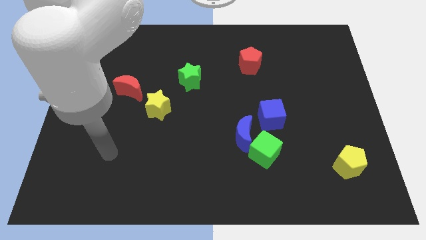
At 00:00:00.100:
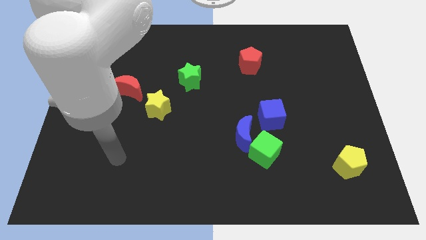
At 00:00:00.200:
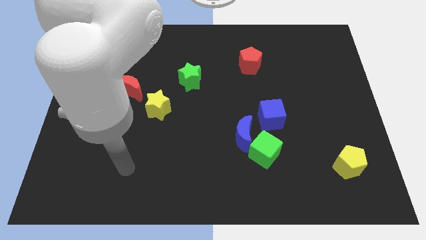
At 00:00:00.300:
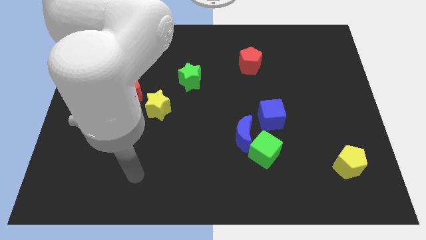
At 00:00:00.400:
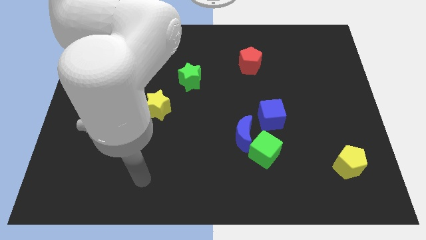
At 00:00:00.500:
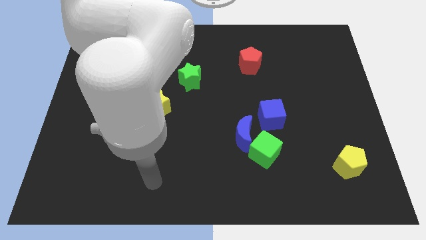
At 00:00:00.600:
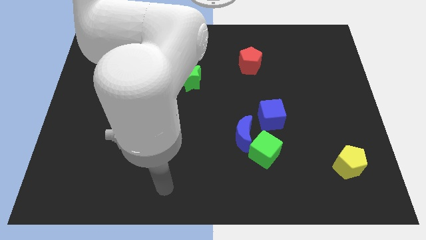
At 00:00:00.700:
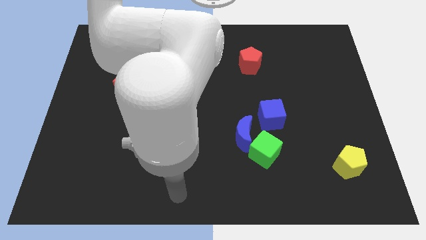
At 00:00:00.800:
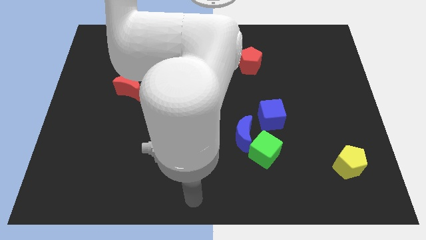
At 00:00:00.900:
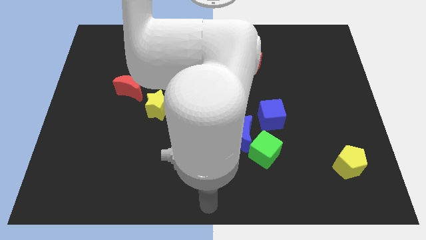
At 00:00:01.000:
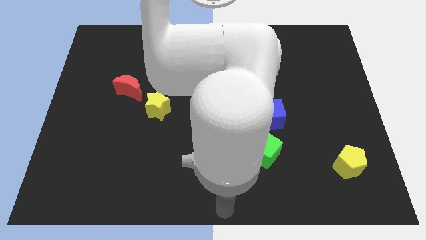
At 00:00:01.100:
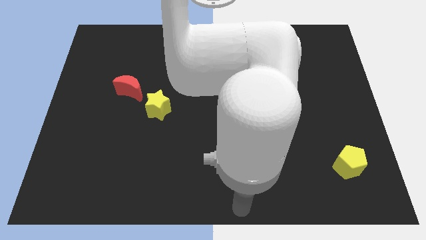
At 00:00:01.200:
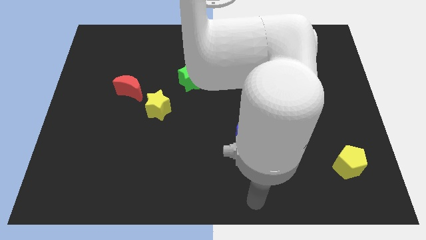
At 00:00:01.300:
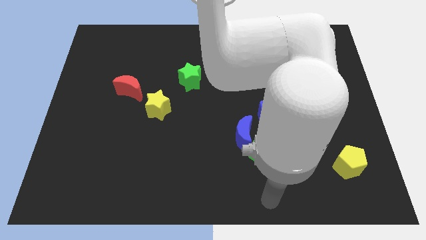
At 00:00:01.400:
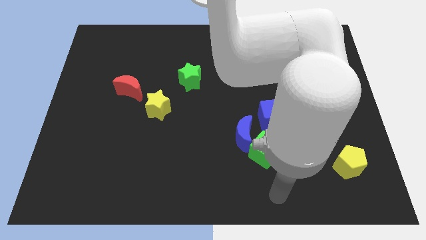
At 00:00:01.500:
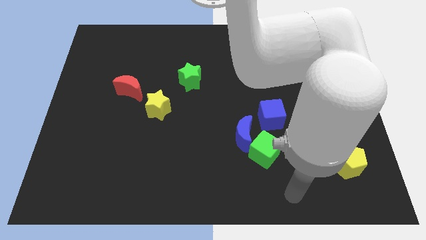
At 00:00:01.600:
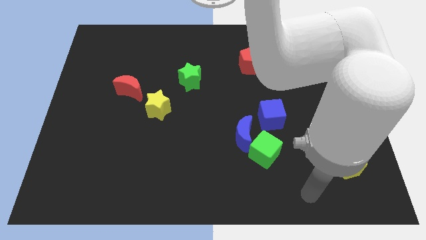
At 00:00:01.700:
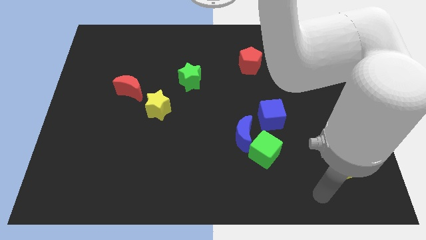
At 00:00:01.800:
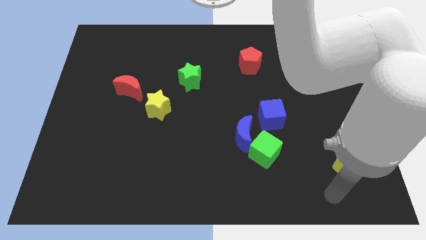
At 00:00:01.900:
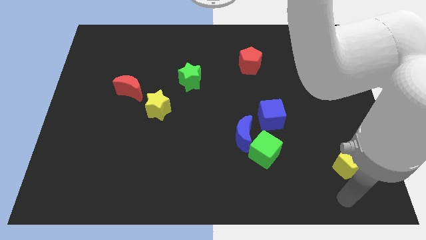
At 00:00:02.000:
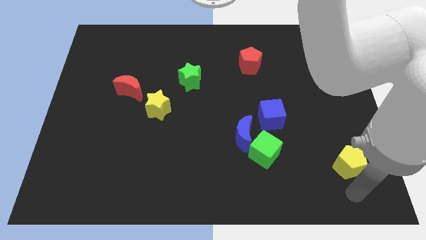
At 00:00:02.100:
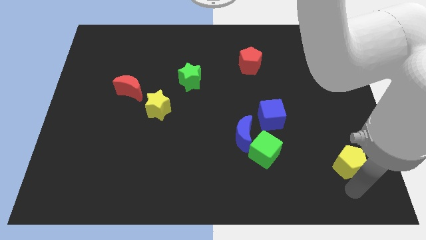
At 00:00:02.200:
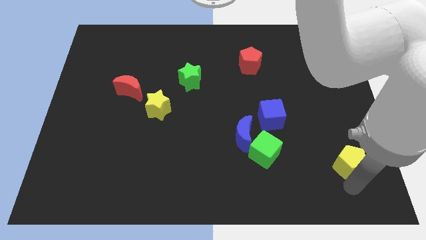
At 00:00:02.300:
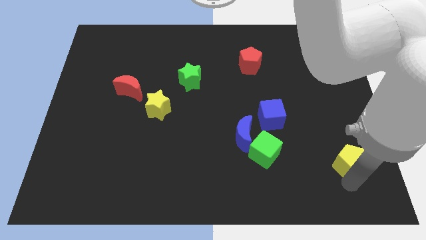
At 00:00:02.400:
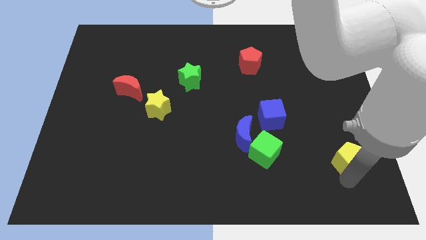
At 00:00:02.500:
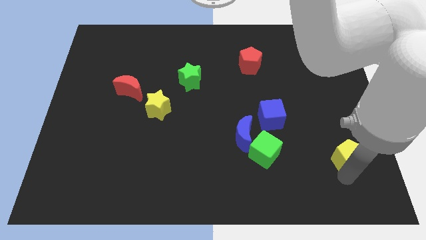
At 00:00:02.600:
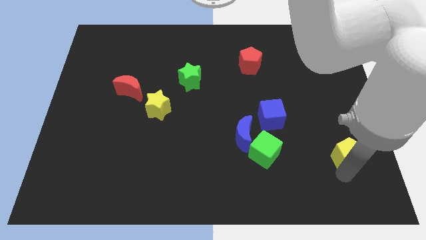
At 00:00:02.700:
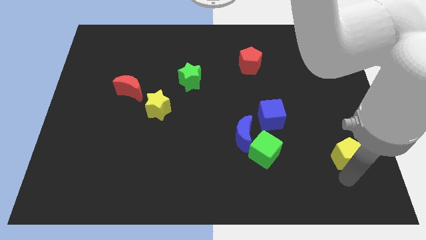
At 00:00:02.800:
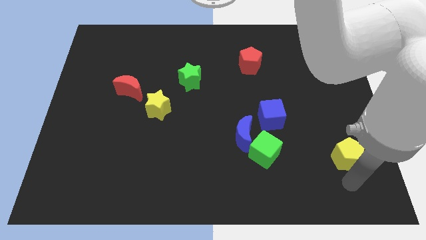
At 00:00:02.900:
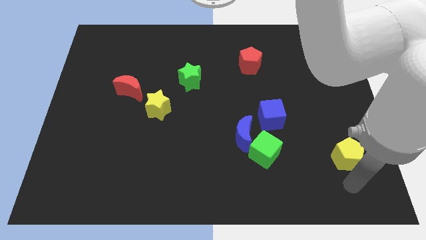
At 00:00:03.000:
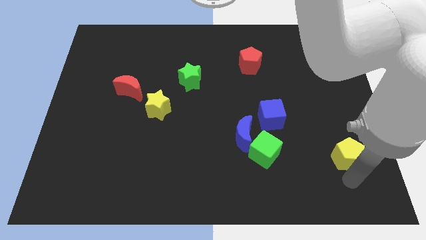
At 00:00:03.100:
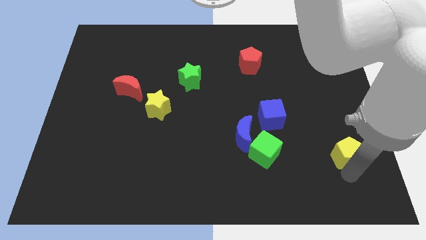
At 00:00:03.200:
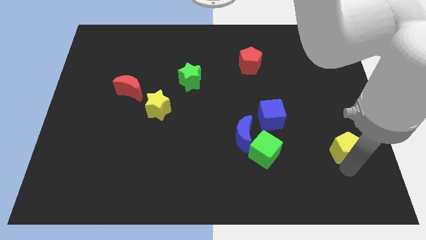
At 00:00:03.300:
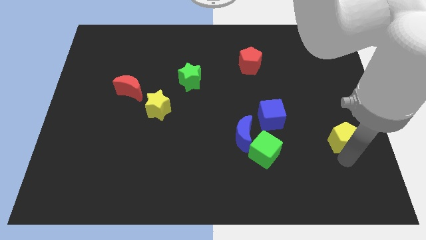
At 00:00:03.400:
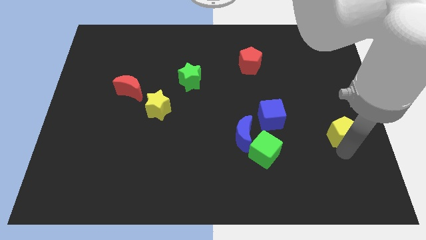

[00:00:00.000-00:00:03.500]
slightly slide the yellow pentagon upwards

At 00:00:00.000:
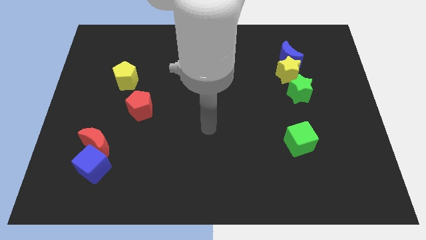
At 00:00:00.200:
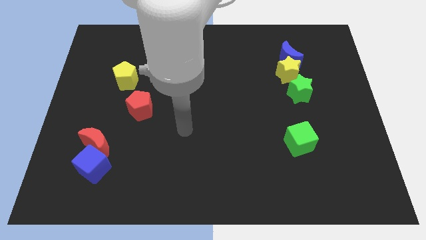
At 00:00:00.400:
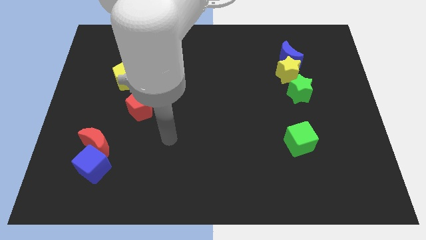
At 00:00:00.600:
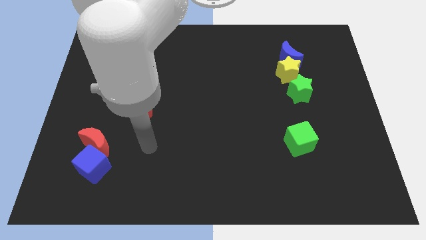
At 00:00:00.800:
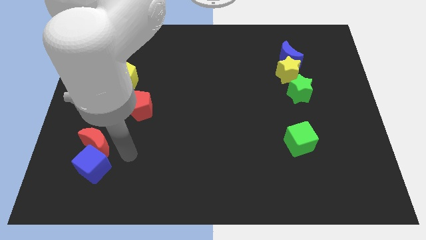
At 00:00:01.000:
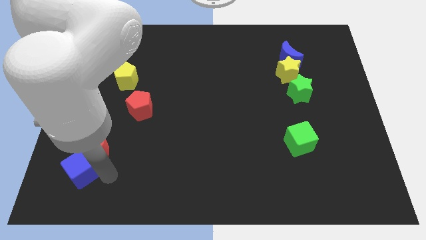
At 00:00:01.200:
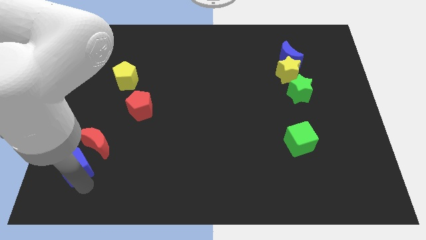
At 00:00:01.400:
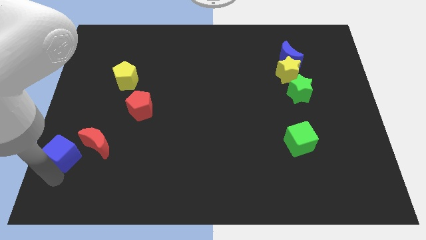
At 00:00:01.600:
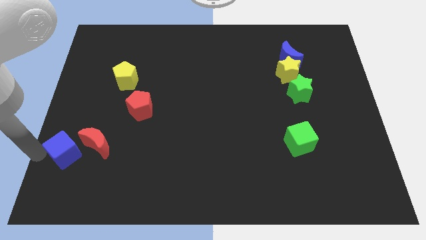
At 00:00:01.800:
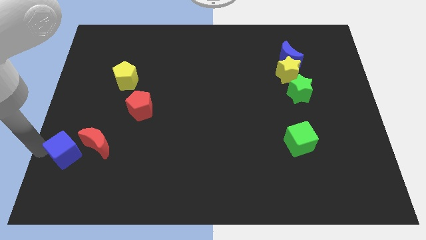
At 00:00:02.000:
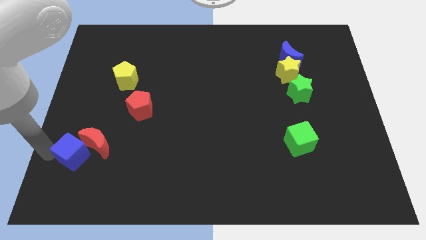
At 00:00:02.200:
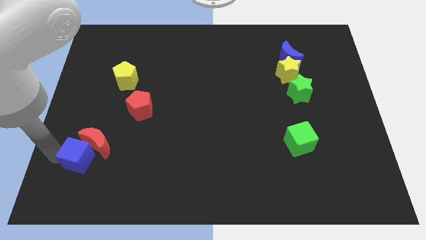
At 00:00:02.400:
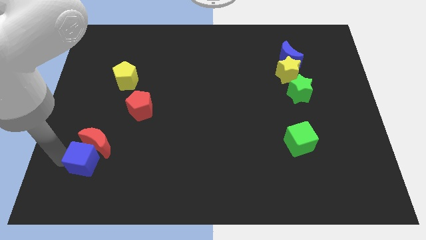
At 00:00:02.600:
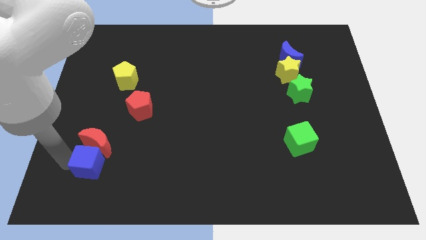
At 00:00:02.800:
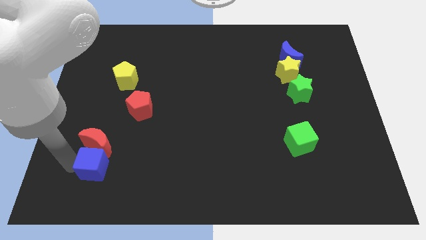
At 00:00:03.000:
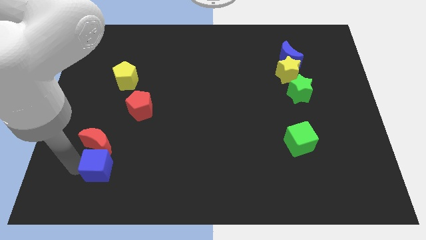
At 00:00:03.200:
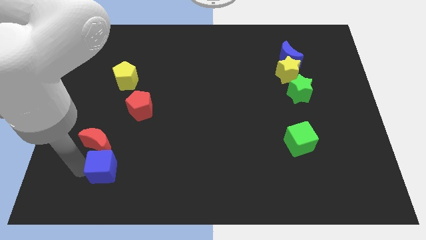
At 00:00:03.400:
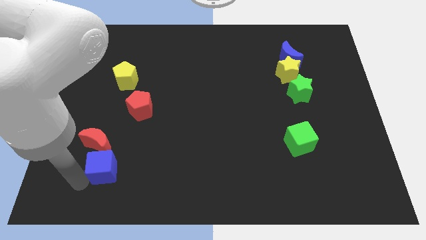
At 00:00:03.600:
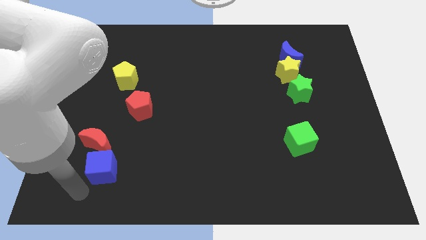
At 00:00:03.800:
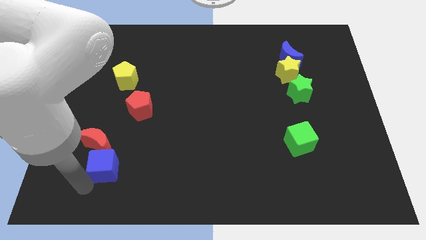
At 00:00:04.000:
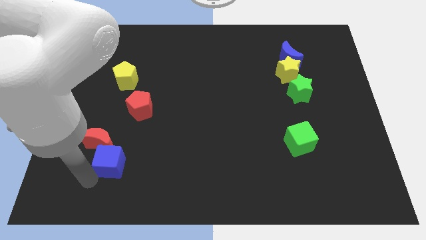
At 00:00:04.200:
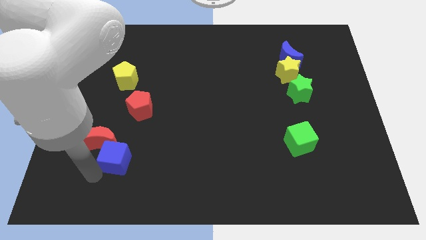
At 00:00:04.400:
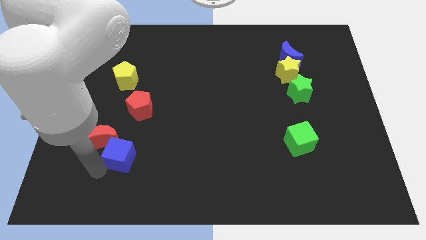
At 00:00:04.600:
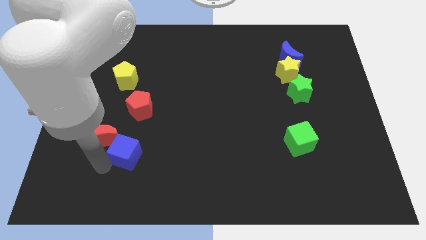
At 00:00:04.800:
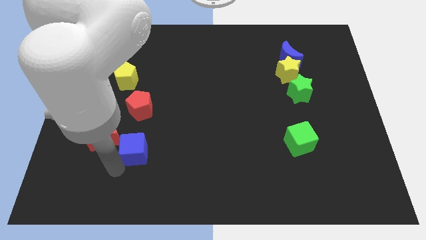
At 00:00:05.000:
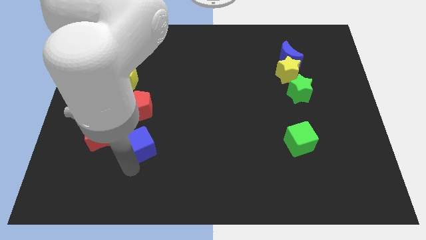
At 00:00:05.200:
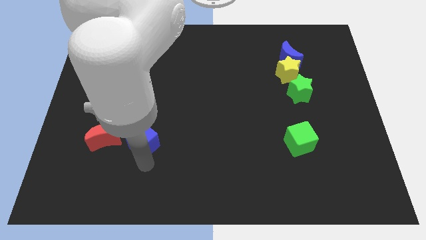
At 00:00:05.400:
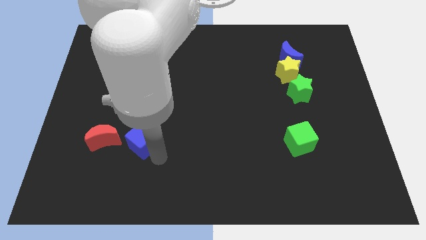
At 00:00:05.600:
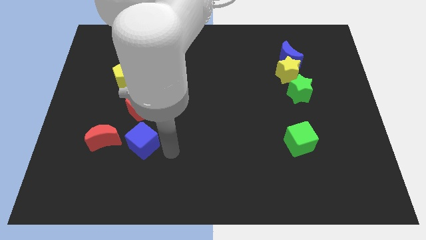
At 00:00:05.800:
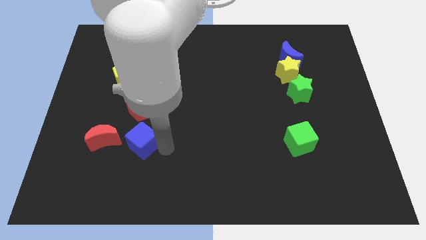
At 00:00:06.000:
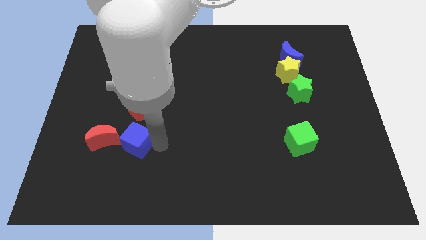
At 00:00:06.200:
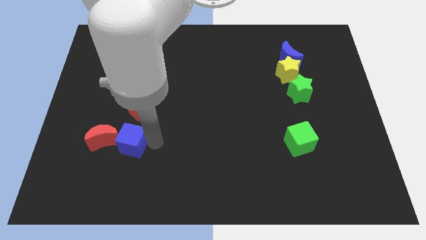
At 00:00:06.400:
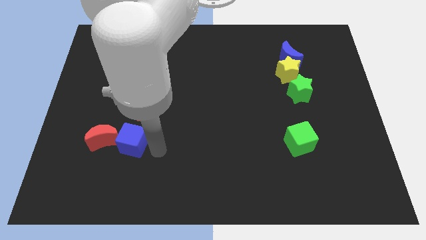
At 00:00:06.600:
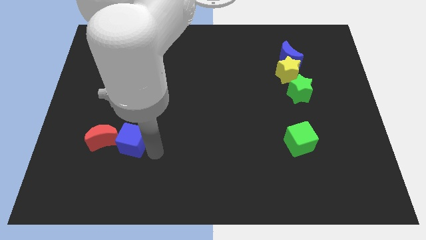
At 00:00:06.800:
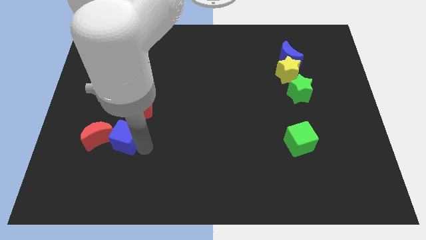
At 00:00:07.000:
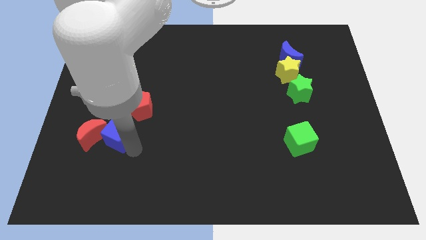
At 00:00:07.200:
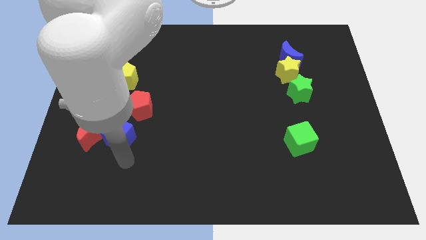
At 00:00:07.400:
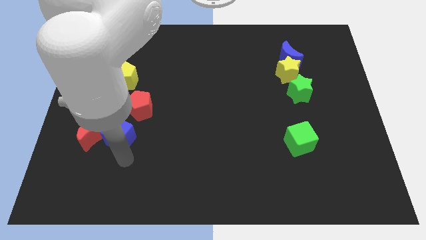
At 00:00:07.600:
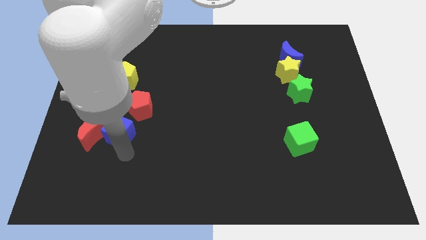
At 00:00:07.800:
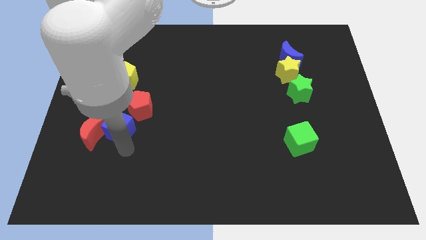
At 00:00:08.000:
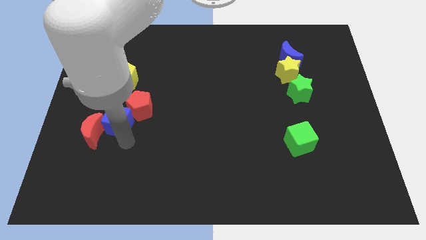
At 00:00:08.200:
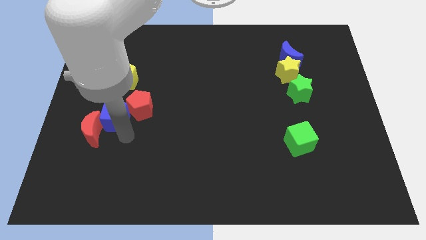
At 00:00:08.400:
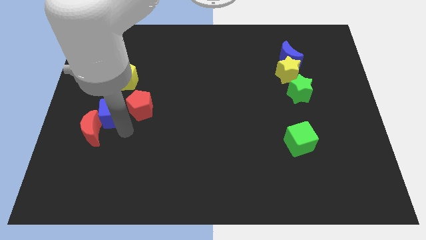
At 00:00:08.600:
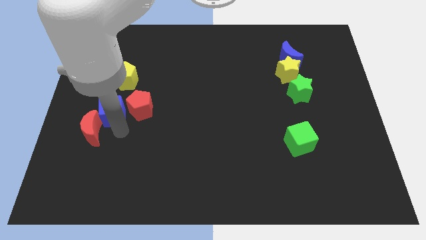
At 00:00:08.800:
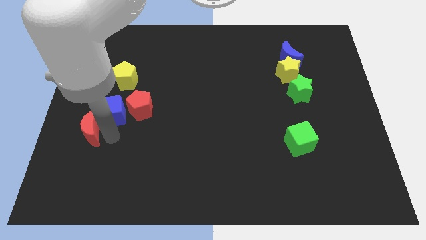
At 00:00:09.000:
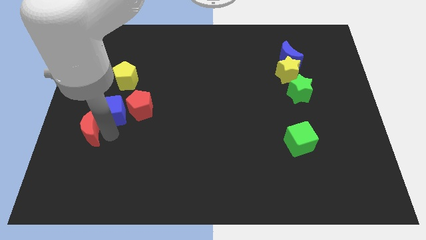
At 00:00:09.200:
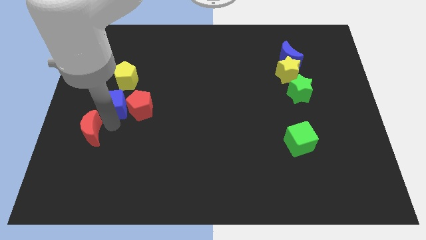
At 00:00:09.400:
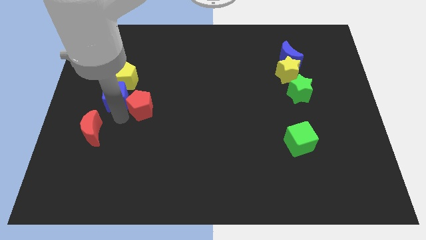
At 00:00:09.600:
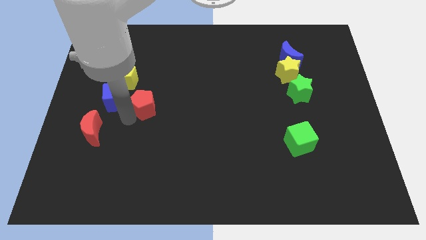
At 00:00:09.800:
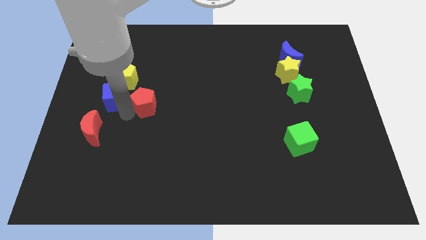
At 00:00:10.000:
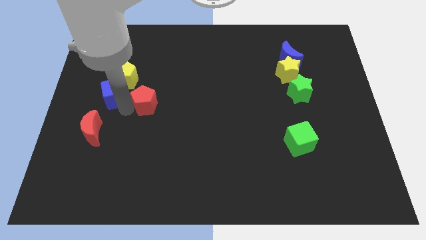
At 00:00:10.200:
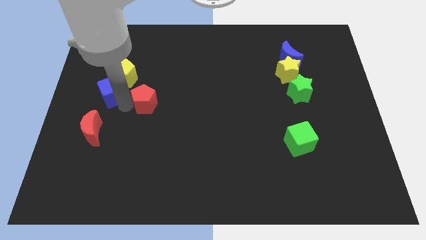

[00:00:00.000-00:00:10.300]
push the blue cube upwards
